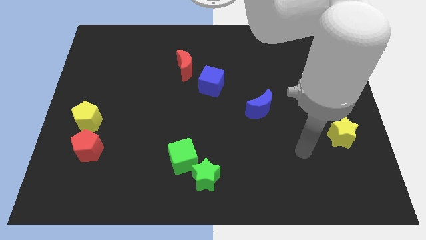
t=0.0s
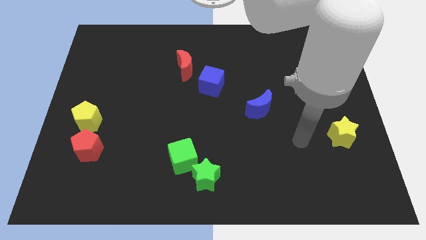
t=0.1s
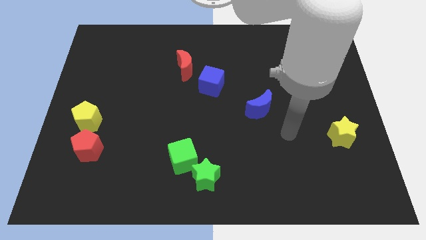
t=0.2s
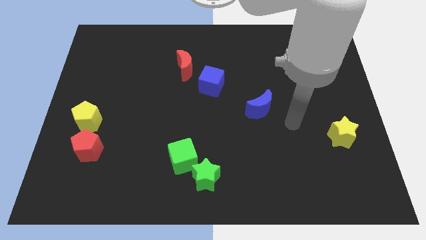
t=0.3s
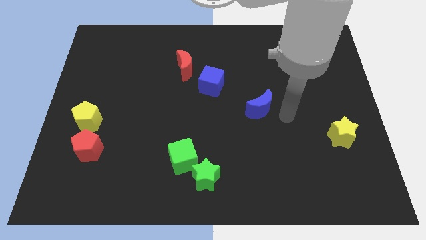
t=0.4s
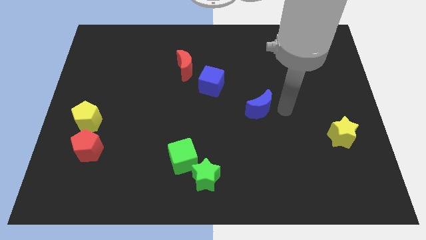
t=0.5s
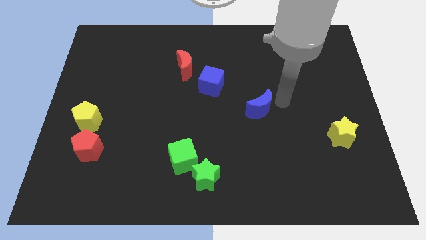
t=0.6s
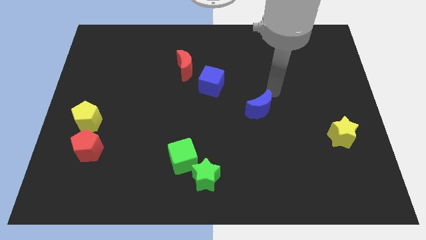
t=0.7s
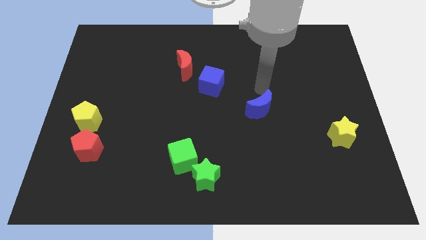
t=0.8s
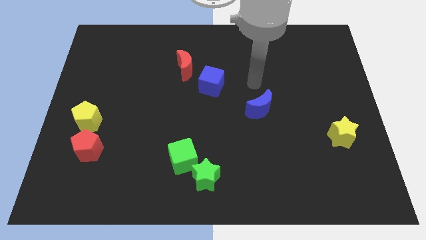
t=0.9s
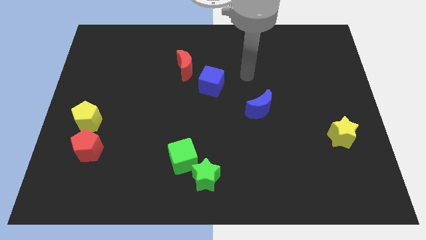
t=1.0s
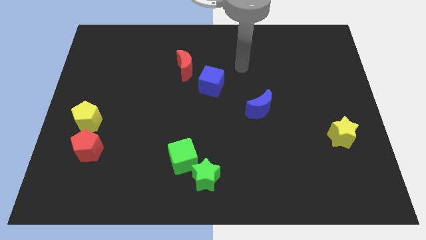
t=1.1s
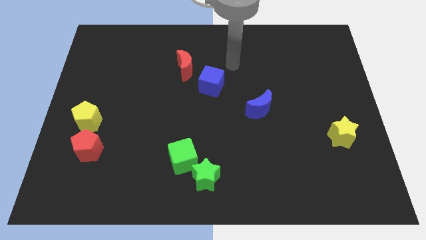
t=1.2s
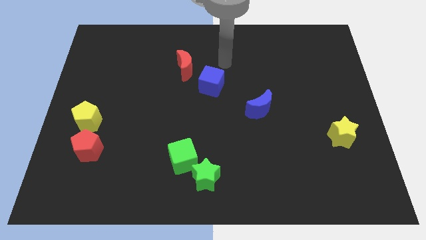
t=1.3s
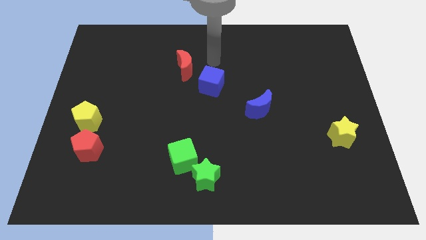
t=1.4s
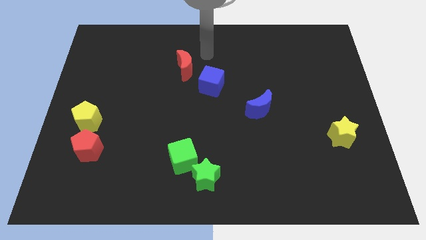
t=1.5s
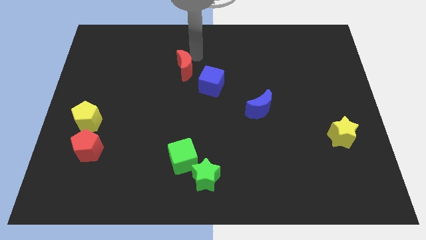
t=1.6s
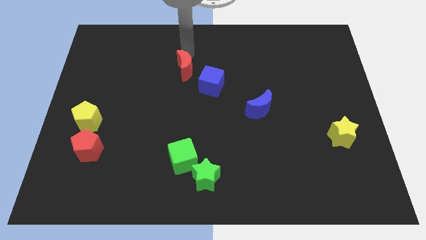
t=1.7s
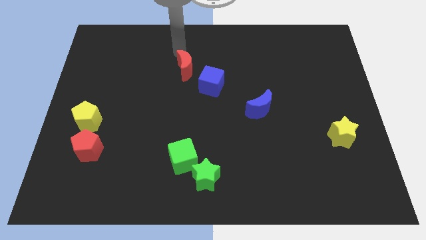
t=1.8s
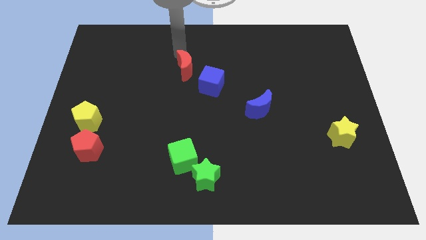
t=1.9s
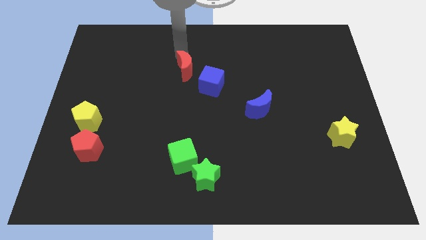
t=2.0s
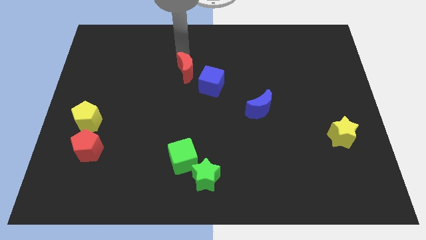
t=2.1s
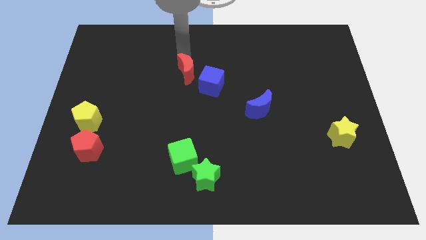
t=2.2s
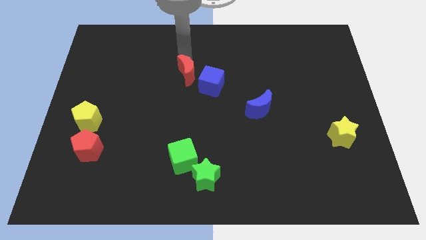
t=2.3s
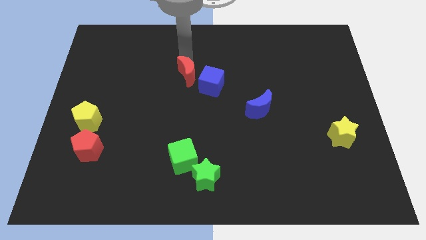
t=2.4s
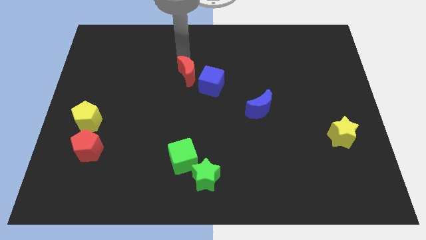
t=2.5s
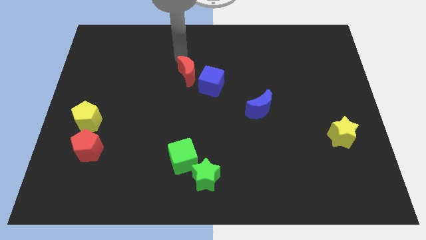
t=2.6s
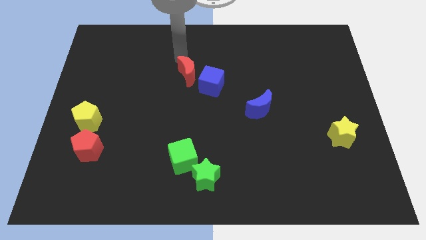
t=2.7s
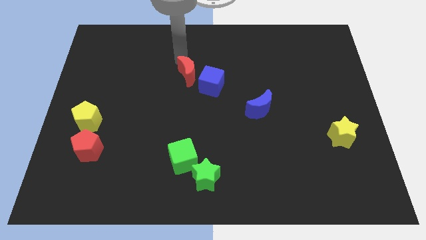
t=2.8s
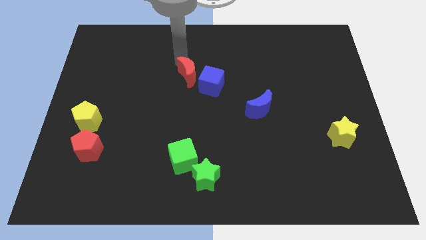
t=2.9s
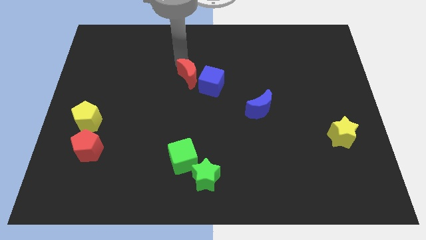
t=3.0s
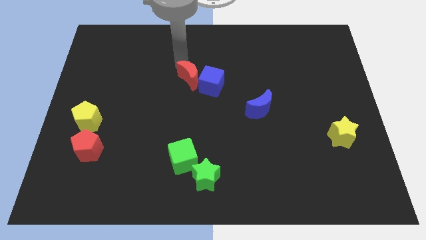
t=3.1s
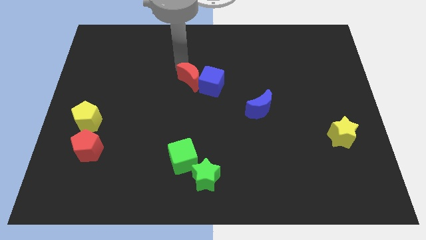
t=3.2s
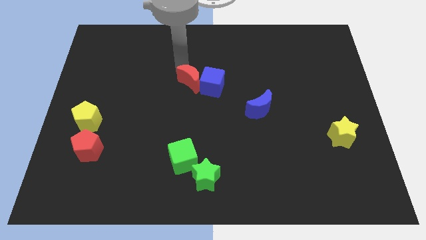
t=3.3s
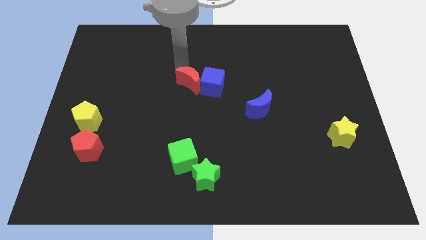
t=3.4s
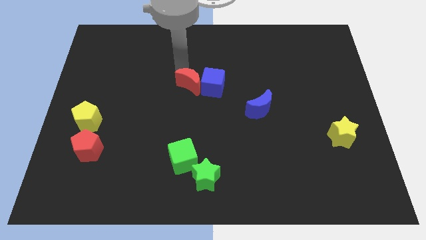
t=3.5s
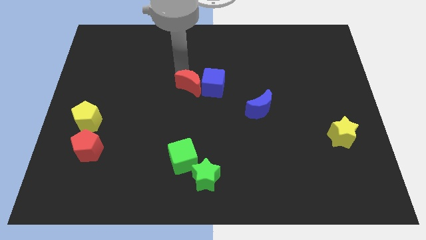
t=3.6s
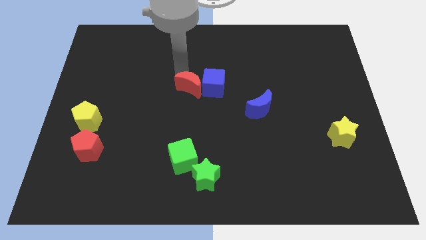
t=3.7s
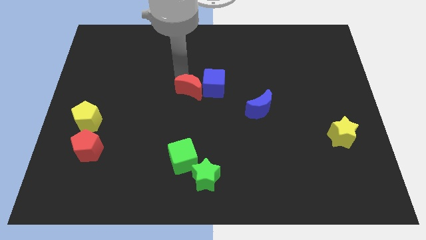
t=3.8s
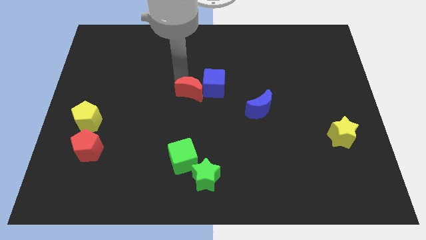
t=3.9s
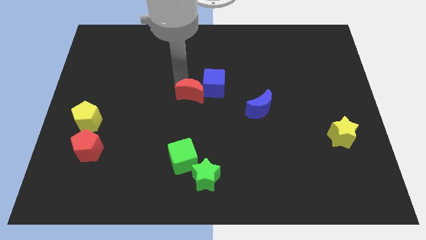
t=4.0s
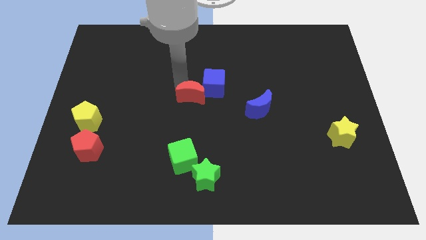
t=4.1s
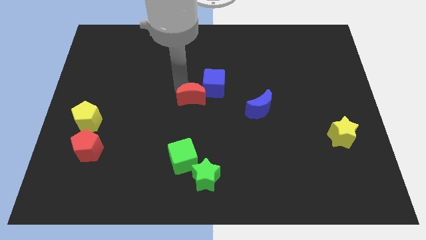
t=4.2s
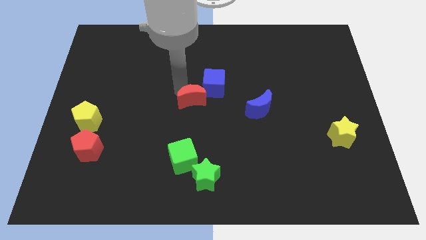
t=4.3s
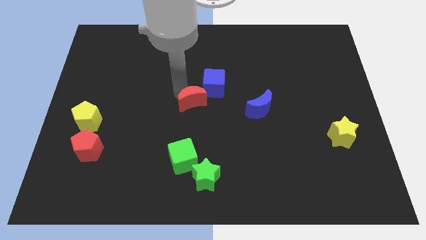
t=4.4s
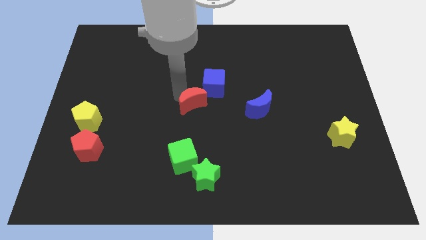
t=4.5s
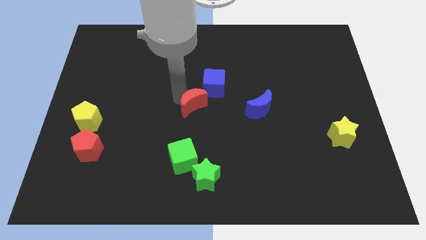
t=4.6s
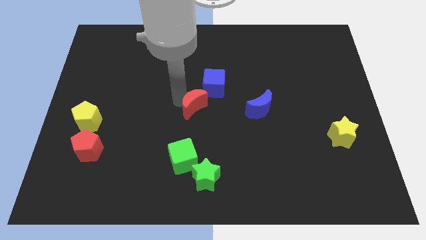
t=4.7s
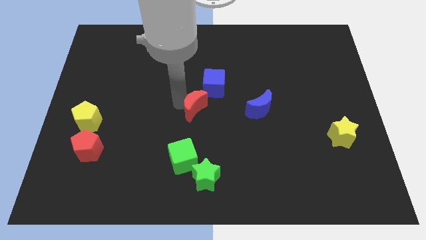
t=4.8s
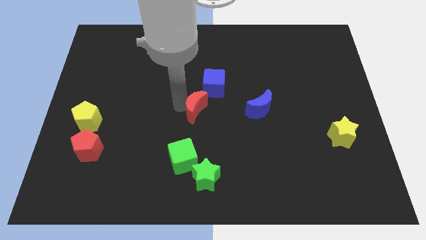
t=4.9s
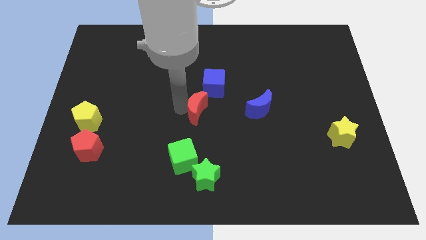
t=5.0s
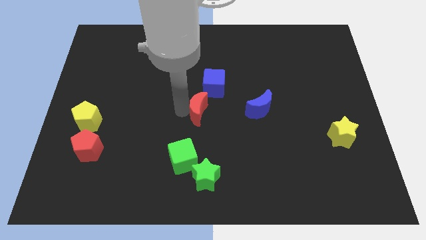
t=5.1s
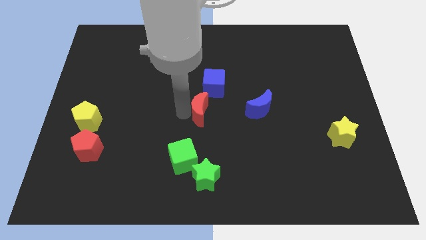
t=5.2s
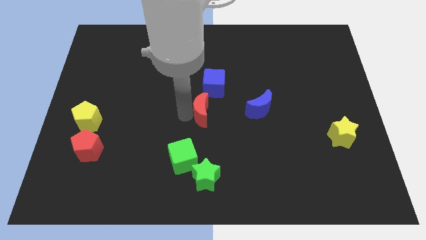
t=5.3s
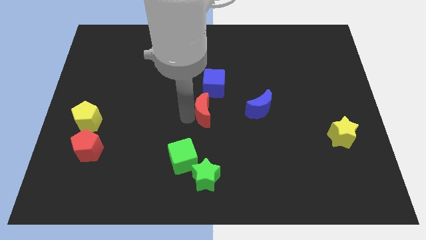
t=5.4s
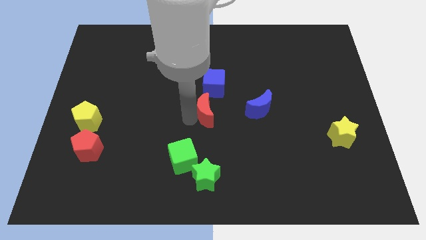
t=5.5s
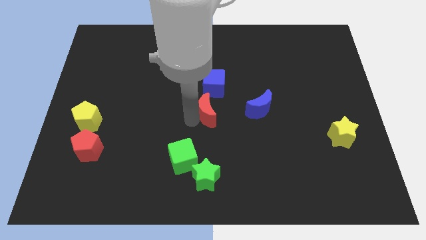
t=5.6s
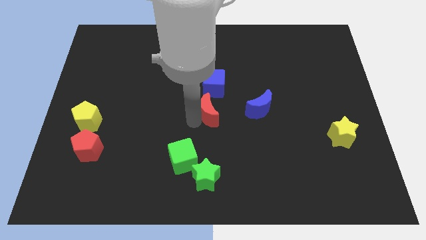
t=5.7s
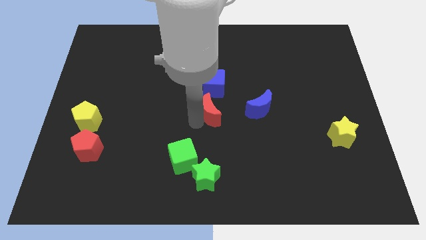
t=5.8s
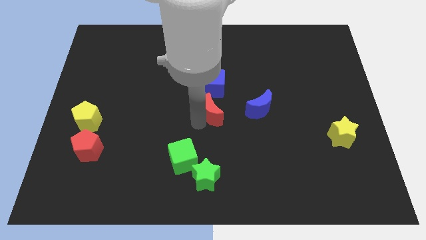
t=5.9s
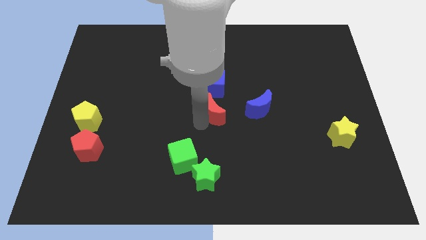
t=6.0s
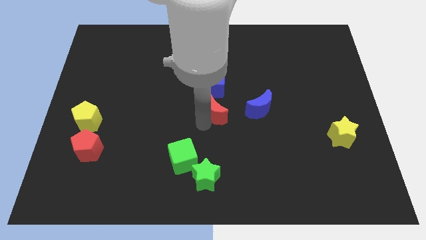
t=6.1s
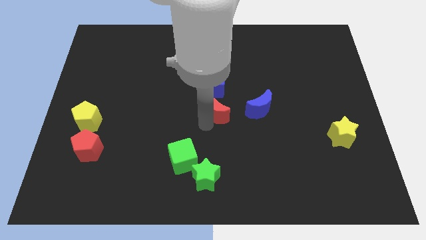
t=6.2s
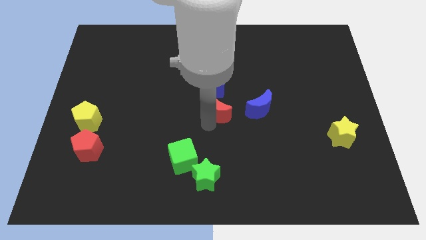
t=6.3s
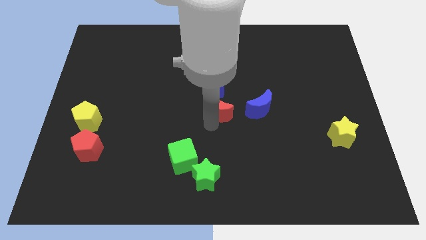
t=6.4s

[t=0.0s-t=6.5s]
put the red moon to the bottom right side of the blue cube

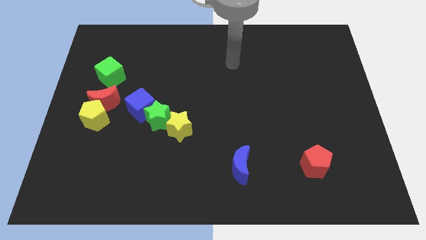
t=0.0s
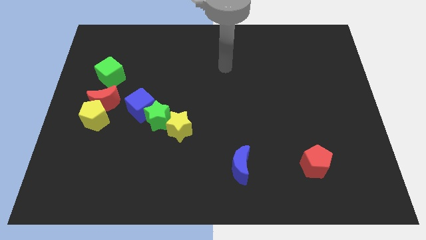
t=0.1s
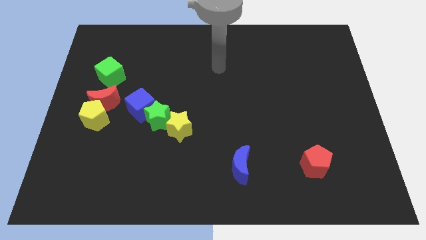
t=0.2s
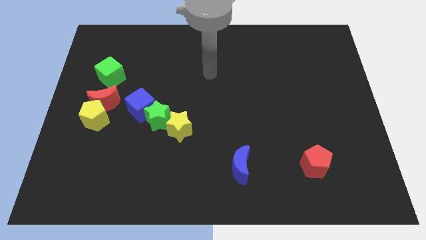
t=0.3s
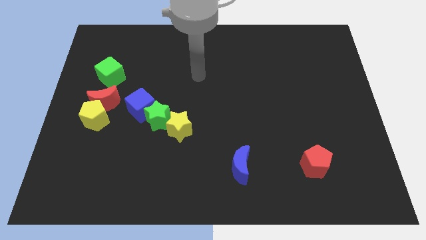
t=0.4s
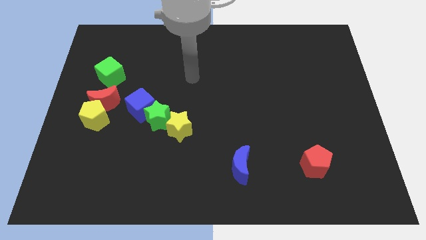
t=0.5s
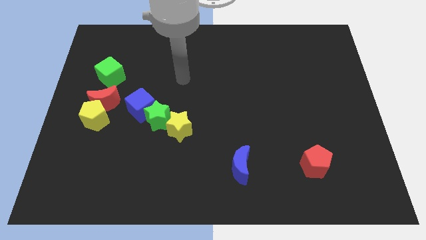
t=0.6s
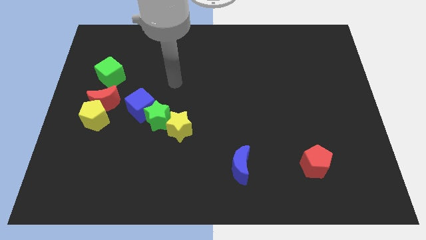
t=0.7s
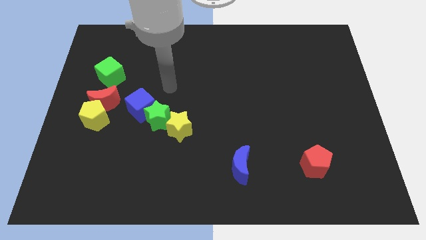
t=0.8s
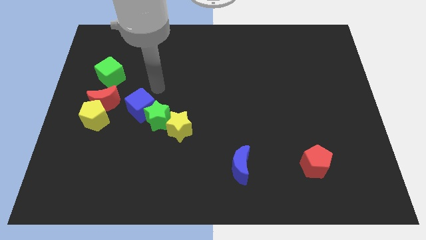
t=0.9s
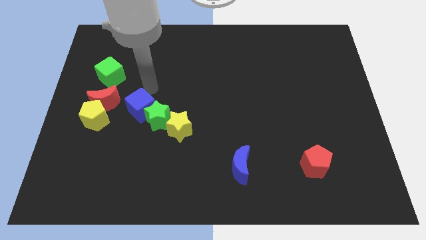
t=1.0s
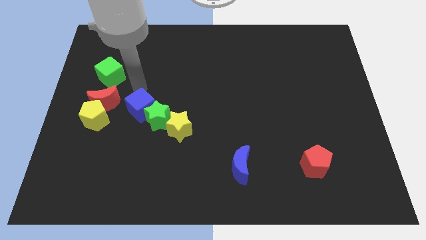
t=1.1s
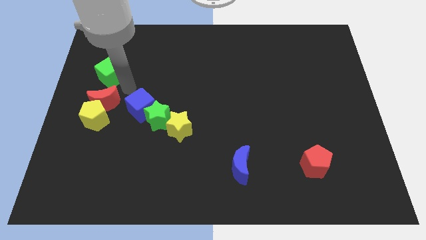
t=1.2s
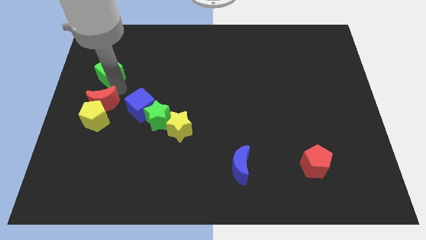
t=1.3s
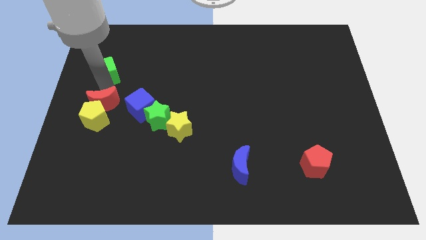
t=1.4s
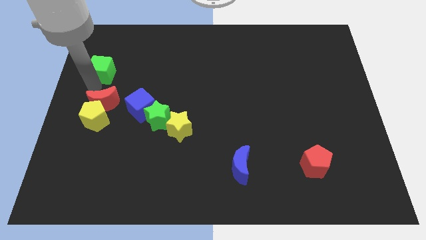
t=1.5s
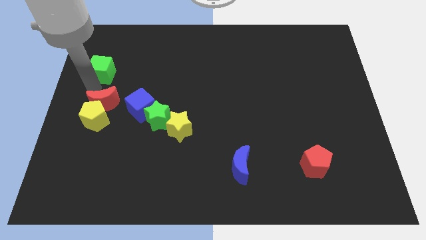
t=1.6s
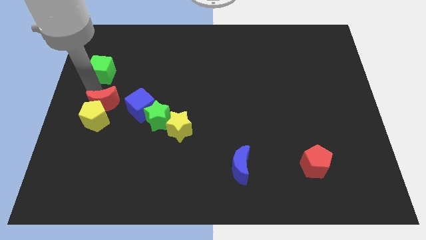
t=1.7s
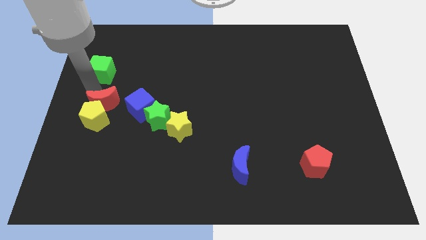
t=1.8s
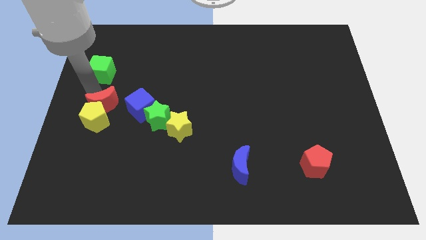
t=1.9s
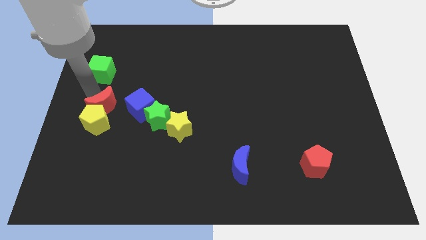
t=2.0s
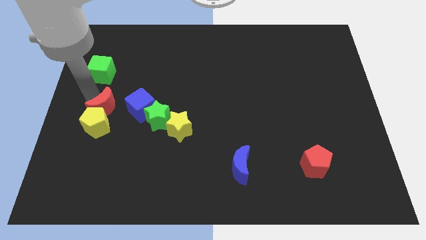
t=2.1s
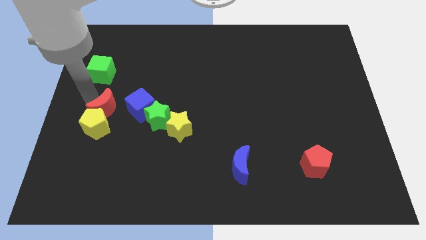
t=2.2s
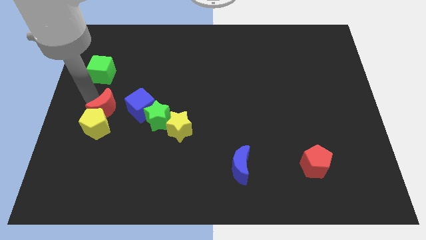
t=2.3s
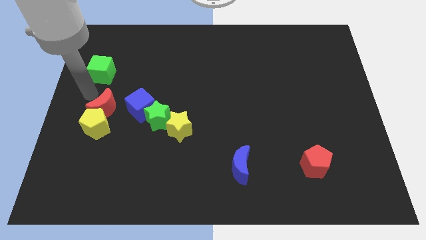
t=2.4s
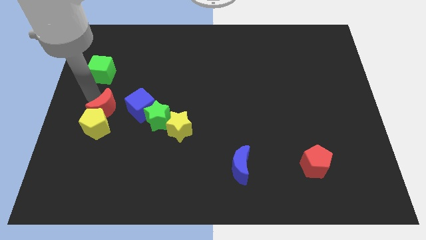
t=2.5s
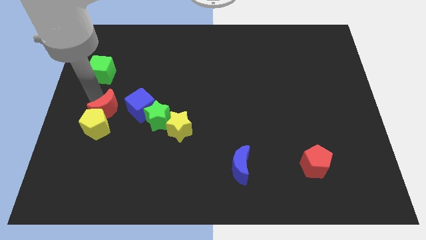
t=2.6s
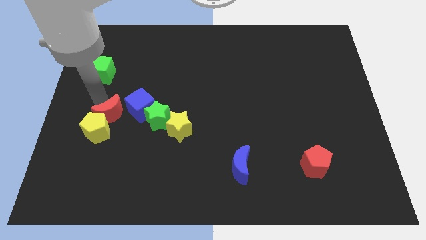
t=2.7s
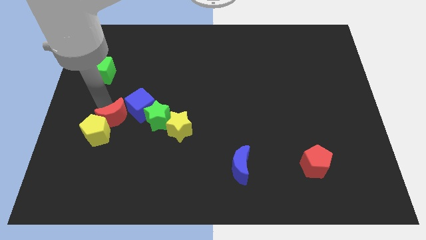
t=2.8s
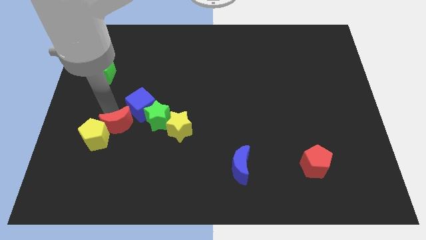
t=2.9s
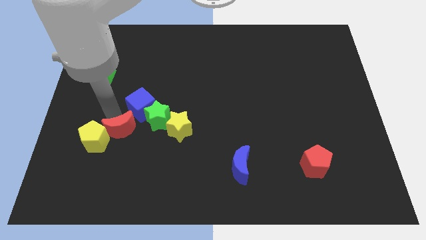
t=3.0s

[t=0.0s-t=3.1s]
slide the red moon diagonally down and to the left of the green star
